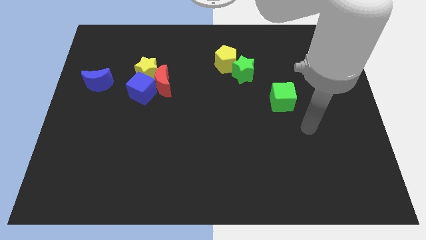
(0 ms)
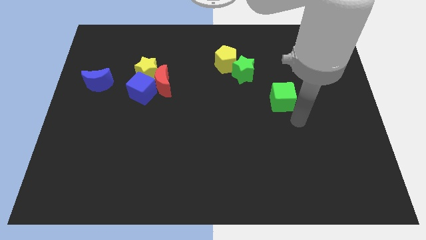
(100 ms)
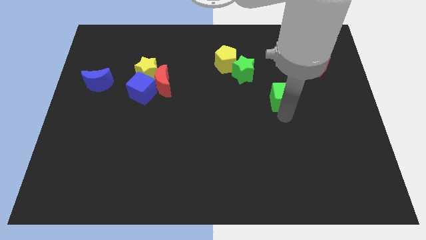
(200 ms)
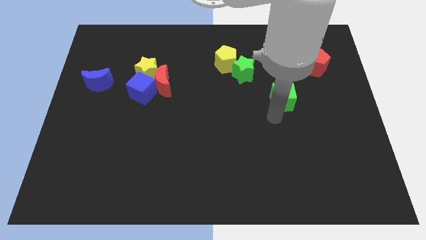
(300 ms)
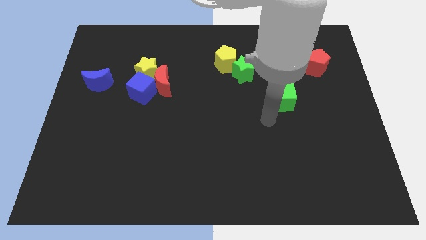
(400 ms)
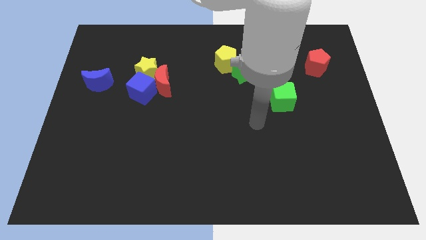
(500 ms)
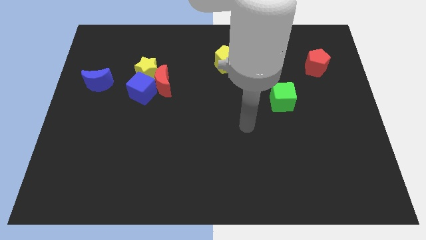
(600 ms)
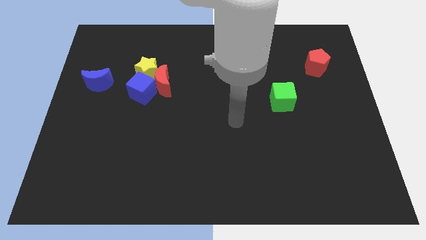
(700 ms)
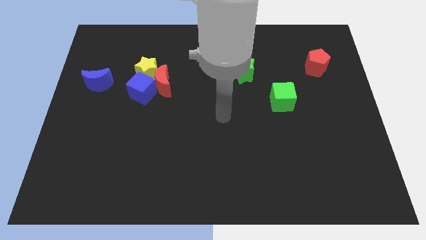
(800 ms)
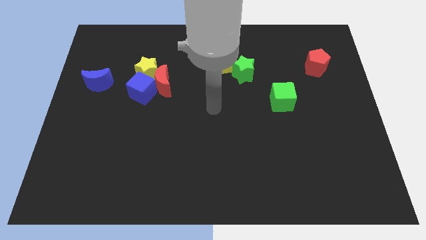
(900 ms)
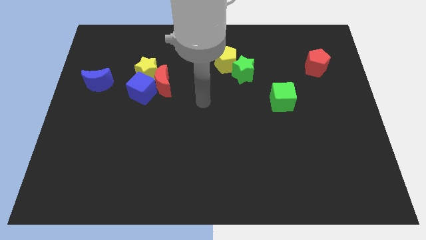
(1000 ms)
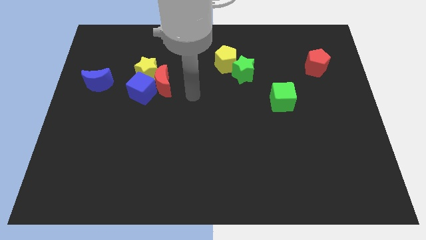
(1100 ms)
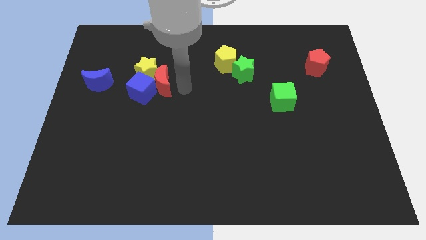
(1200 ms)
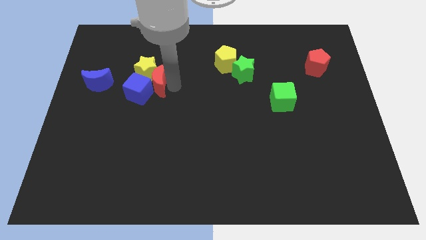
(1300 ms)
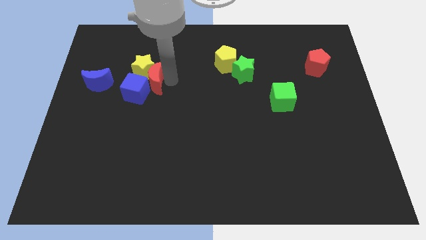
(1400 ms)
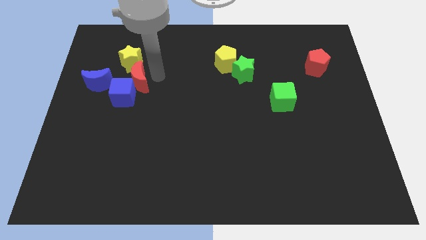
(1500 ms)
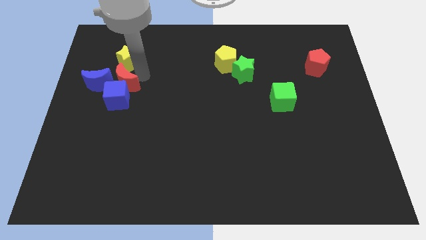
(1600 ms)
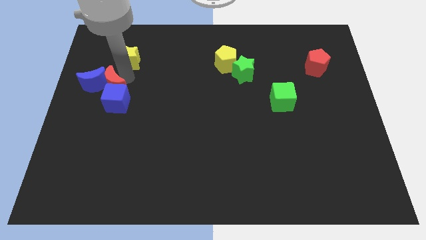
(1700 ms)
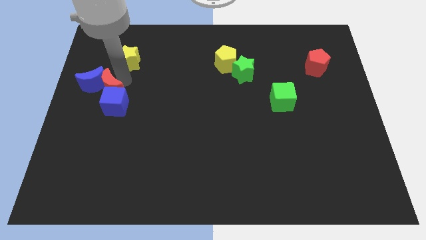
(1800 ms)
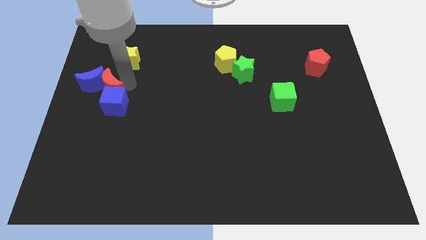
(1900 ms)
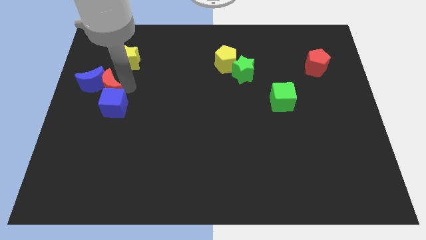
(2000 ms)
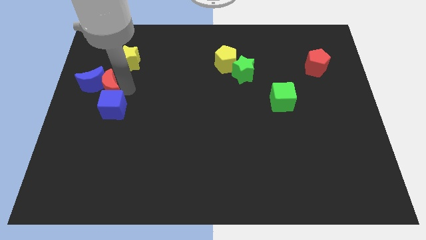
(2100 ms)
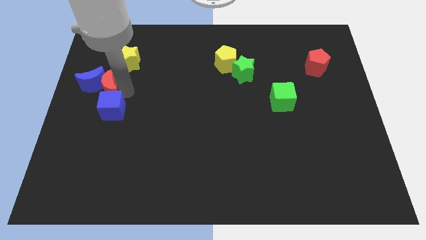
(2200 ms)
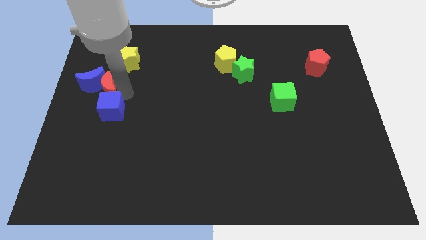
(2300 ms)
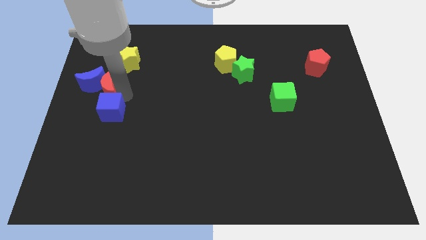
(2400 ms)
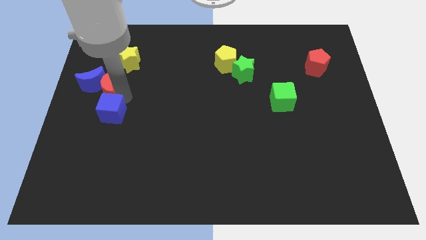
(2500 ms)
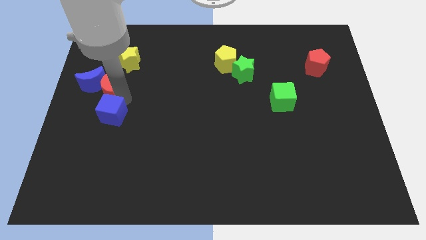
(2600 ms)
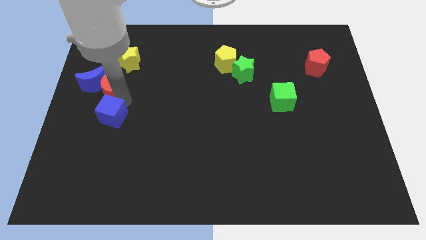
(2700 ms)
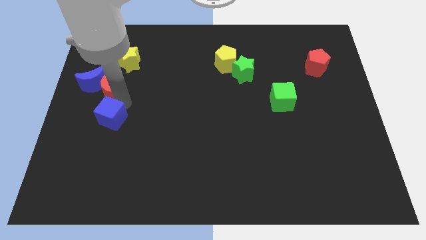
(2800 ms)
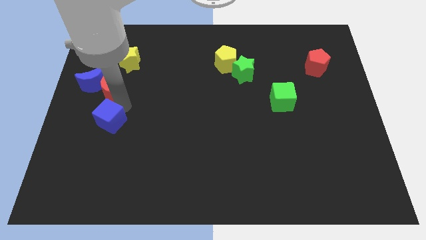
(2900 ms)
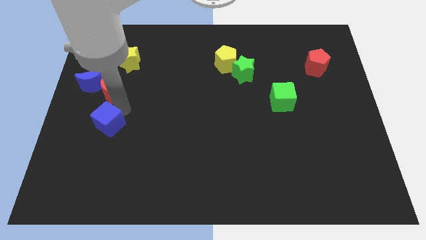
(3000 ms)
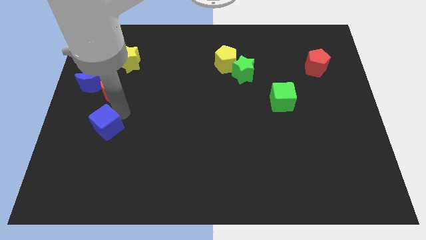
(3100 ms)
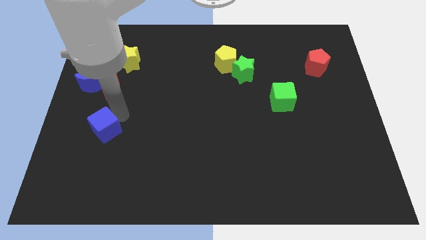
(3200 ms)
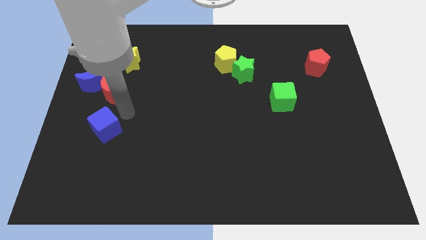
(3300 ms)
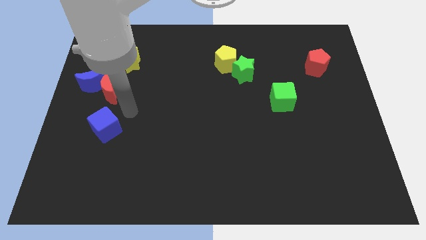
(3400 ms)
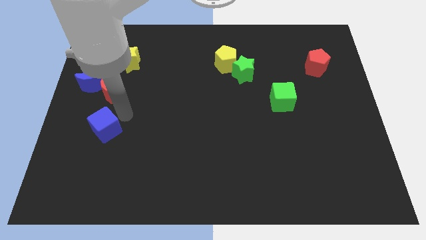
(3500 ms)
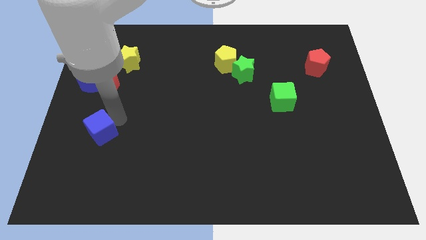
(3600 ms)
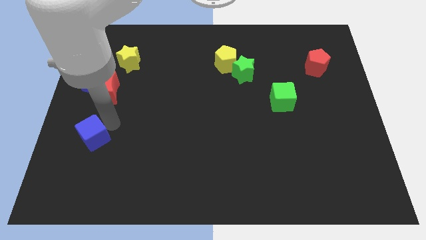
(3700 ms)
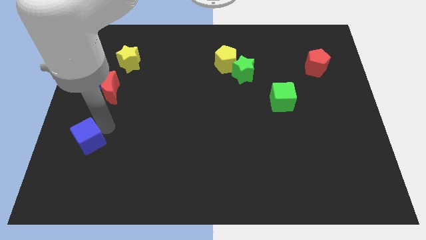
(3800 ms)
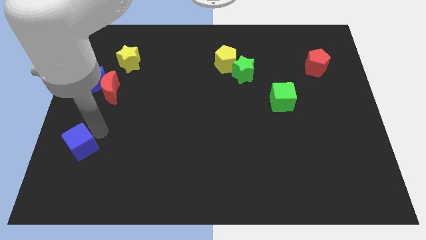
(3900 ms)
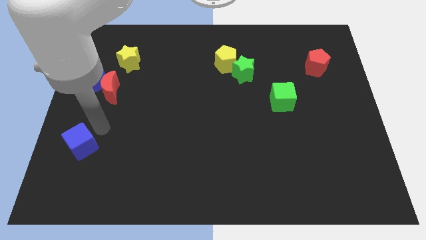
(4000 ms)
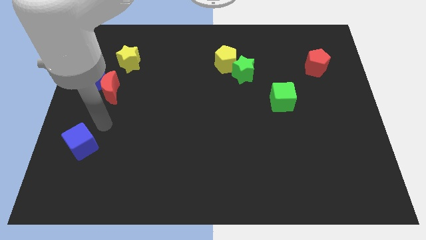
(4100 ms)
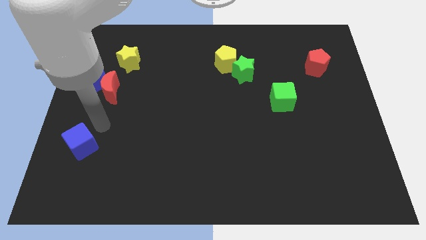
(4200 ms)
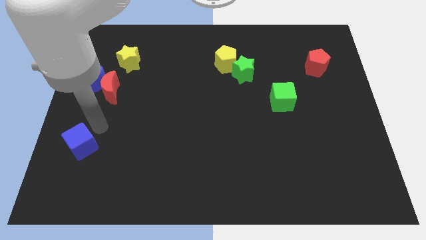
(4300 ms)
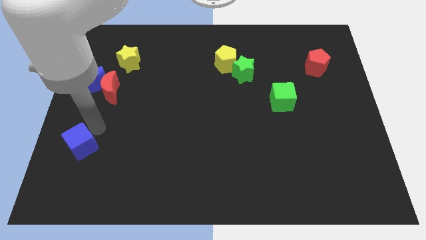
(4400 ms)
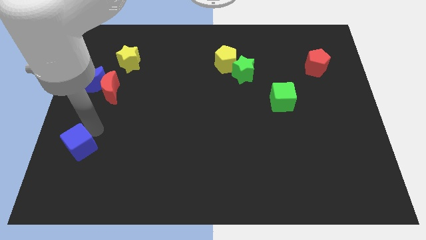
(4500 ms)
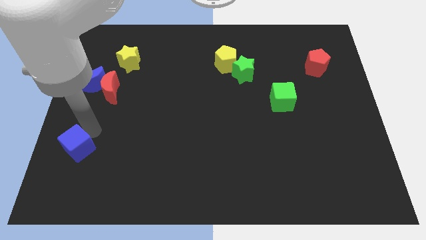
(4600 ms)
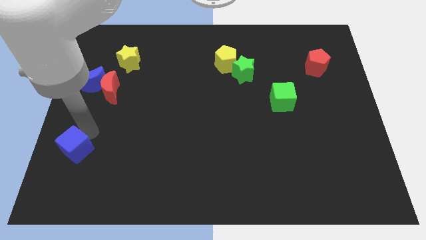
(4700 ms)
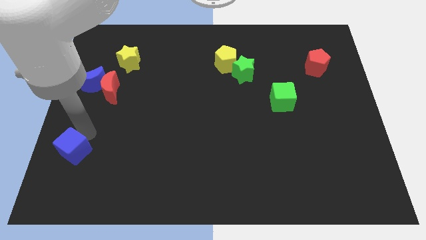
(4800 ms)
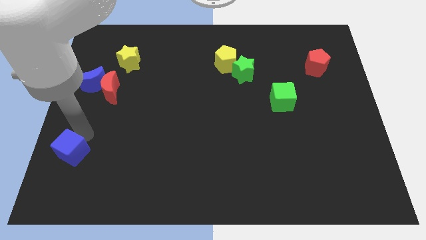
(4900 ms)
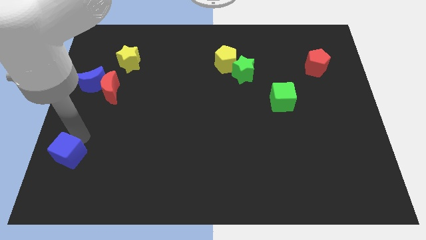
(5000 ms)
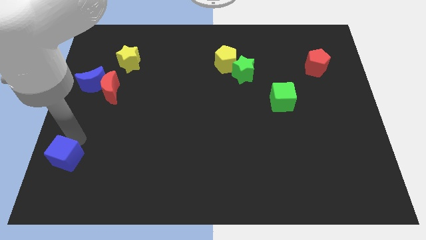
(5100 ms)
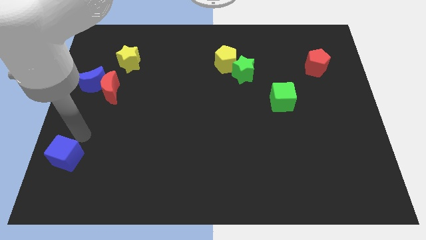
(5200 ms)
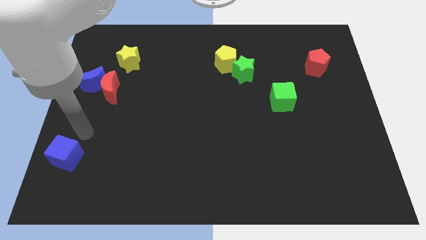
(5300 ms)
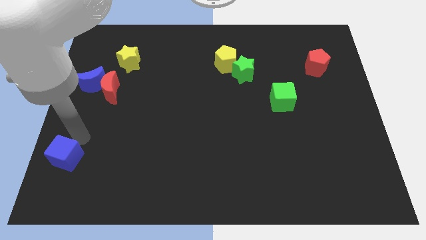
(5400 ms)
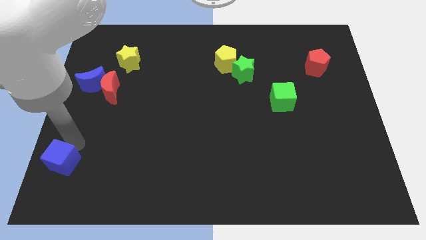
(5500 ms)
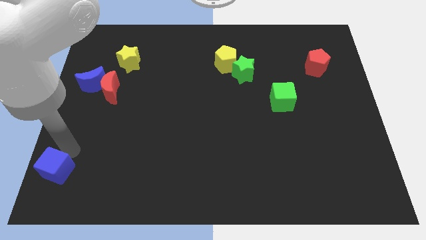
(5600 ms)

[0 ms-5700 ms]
push the blue cube to the bottom left of the board

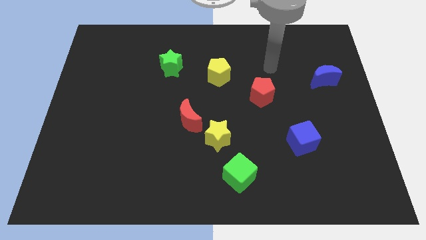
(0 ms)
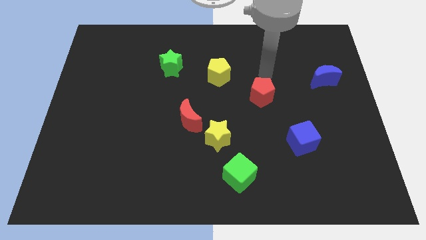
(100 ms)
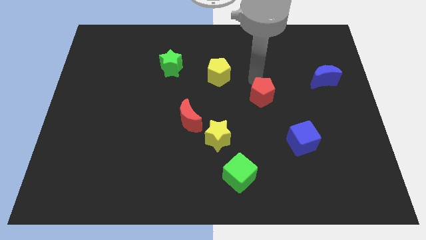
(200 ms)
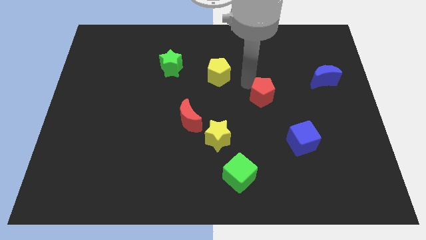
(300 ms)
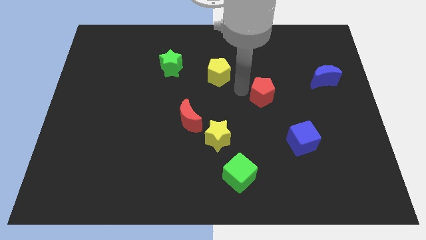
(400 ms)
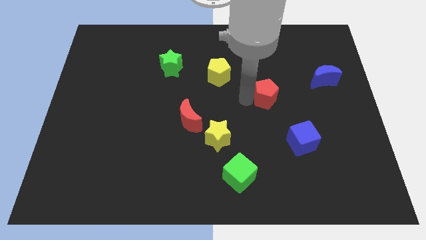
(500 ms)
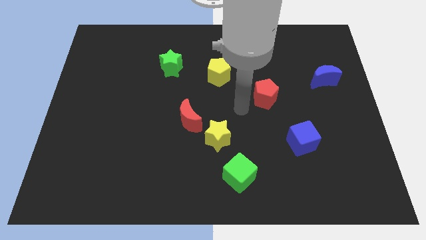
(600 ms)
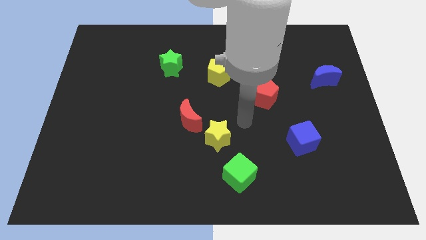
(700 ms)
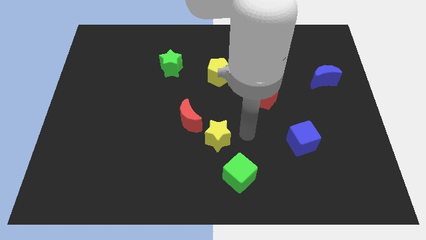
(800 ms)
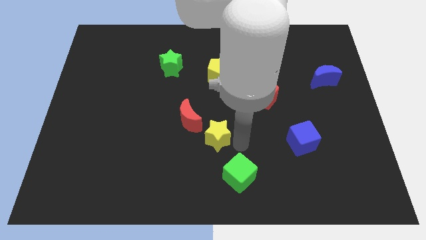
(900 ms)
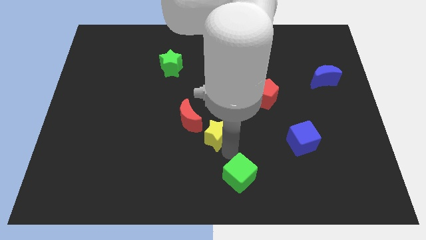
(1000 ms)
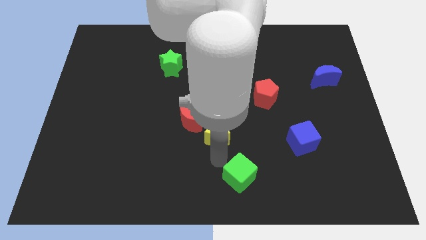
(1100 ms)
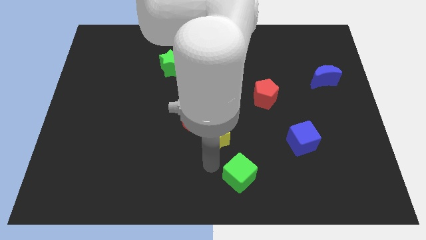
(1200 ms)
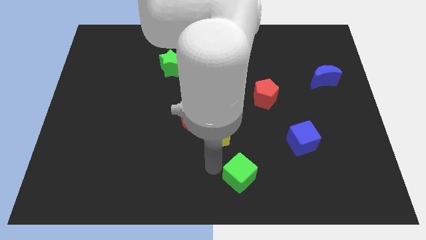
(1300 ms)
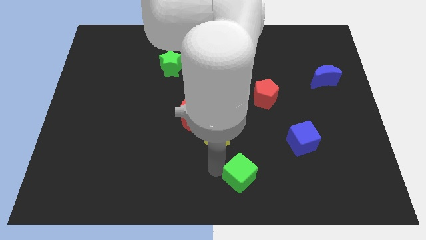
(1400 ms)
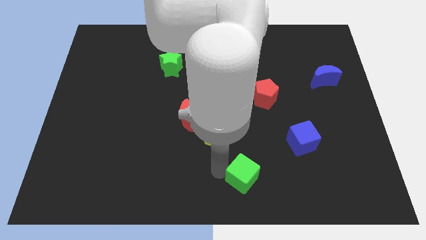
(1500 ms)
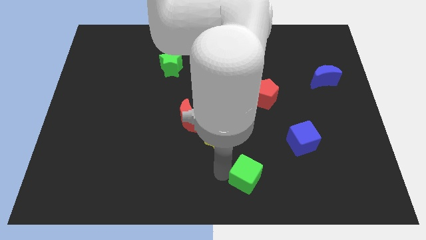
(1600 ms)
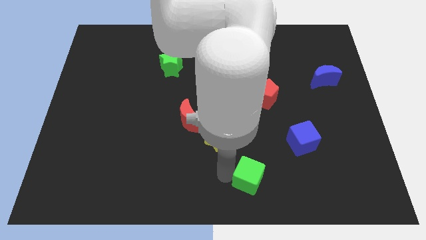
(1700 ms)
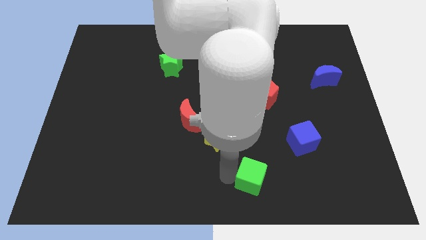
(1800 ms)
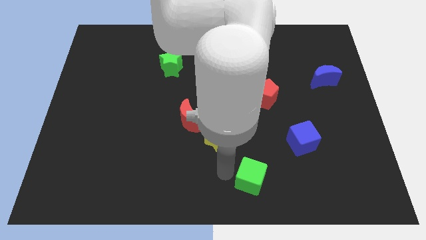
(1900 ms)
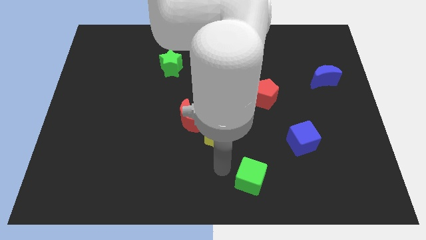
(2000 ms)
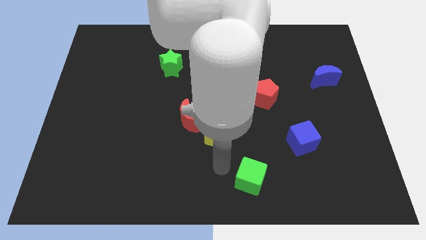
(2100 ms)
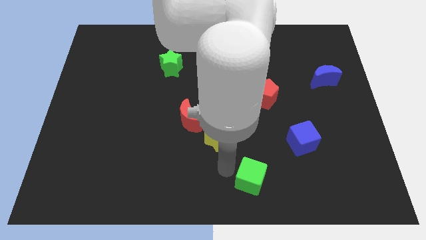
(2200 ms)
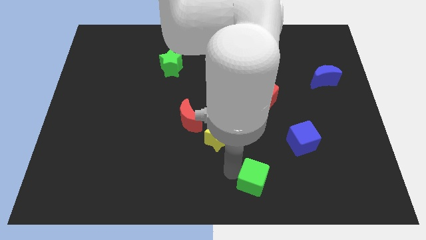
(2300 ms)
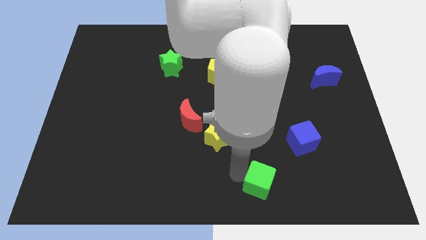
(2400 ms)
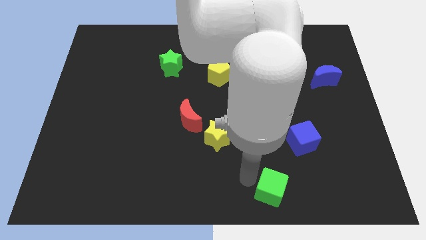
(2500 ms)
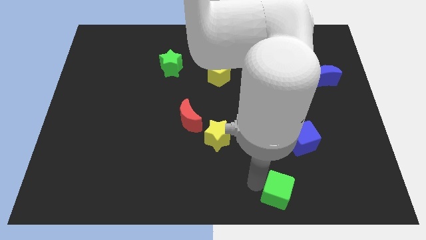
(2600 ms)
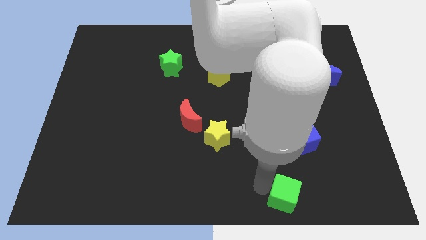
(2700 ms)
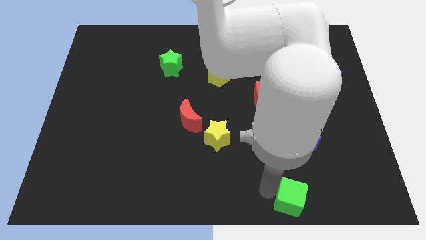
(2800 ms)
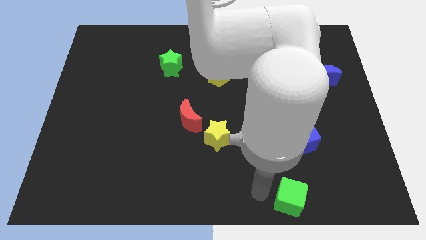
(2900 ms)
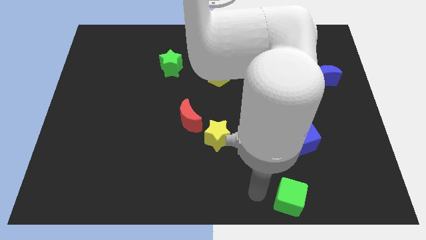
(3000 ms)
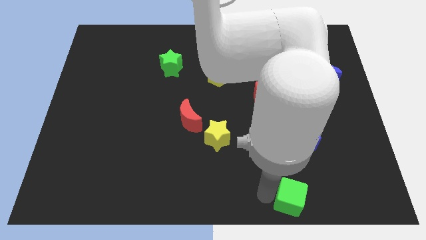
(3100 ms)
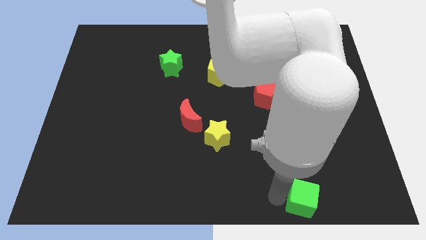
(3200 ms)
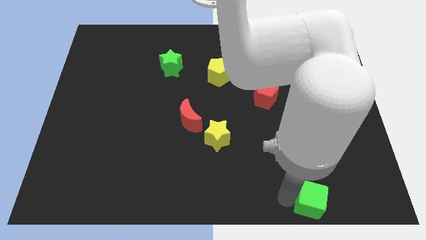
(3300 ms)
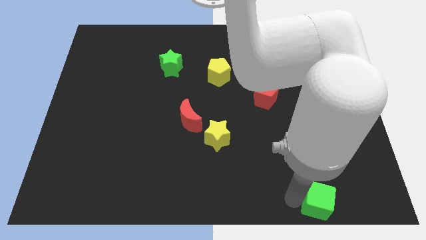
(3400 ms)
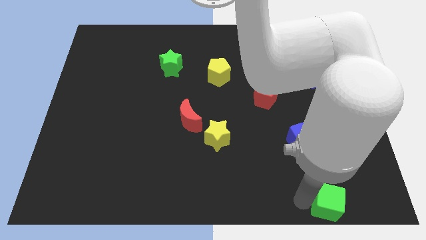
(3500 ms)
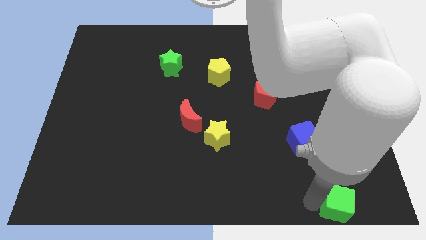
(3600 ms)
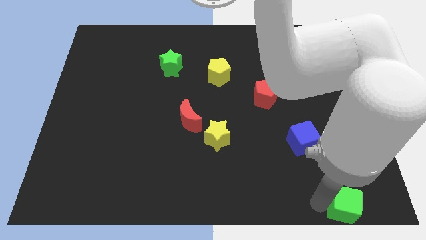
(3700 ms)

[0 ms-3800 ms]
put the green cube to the bottom right of the board
